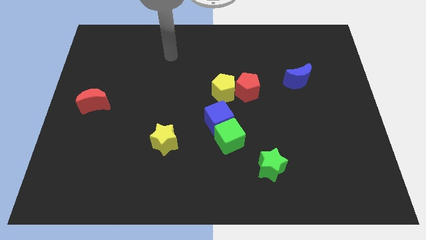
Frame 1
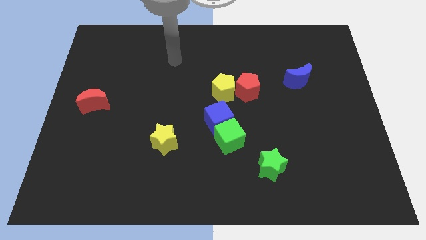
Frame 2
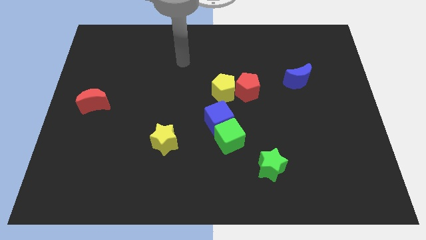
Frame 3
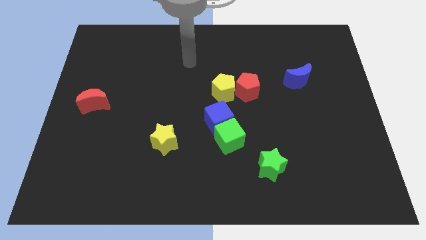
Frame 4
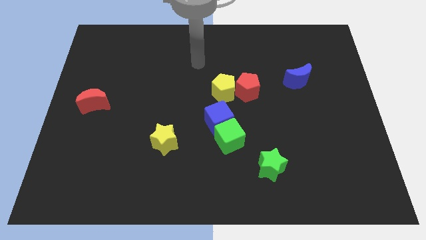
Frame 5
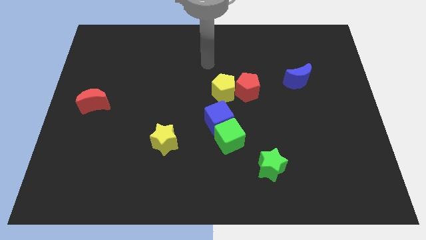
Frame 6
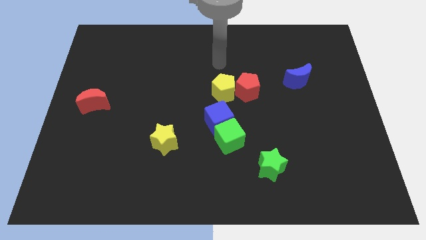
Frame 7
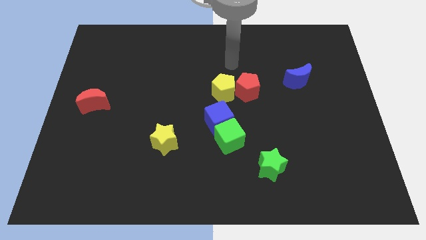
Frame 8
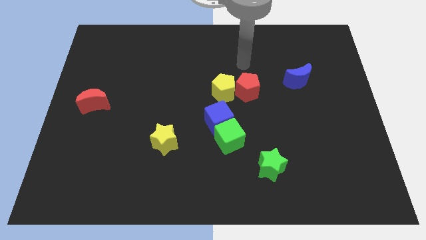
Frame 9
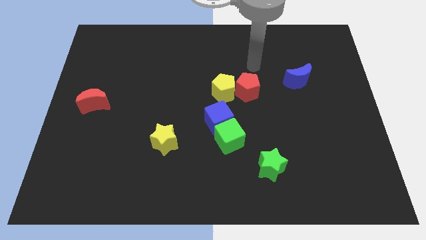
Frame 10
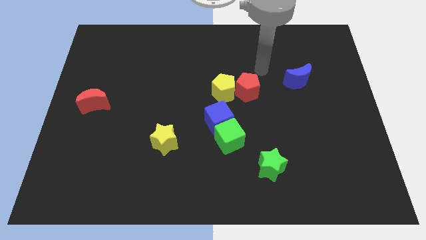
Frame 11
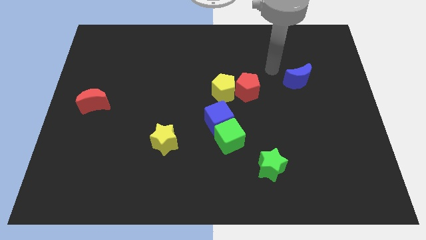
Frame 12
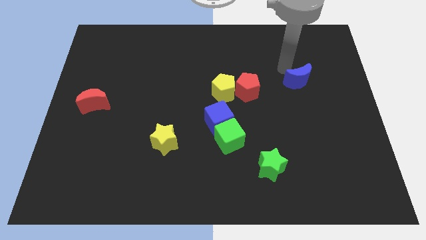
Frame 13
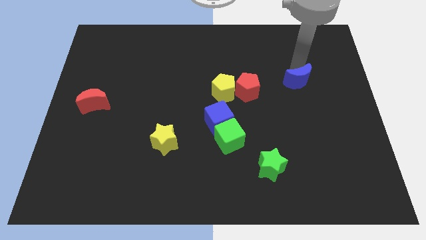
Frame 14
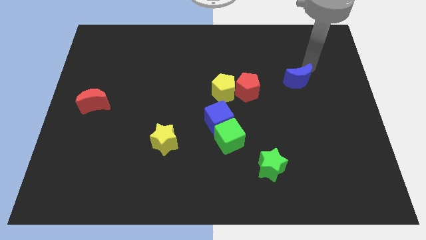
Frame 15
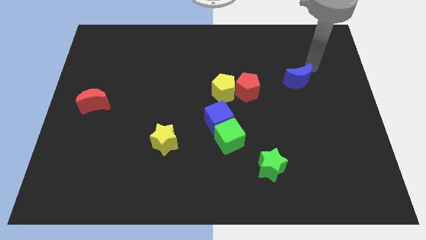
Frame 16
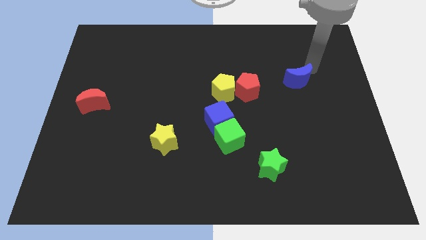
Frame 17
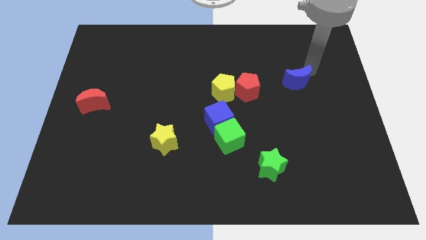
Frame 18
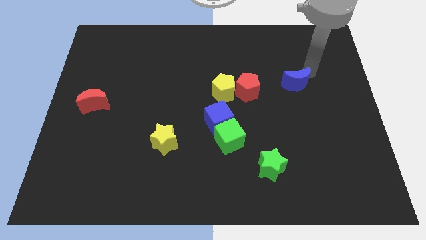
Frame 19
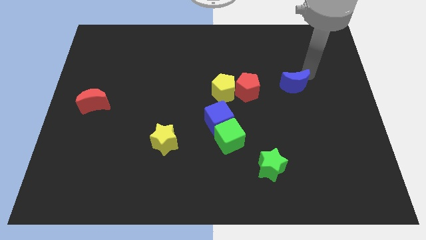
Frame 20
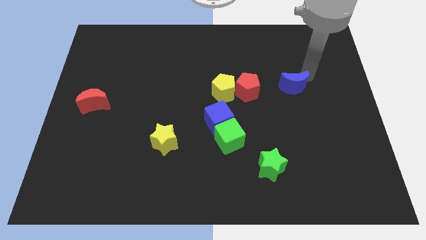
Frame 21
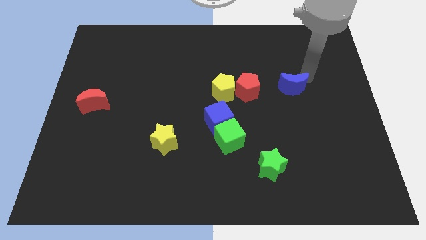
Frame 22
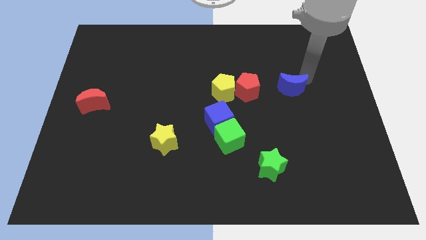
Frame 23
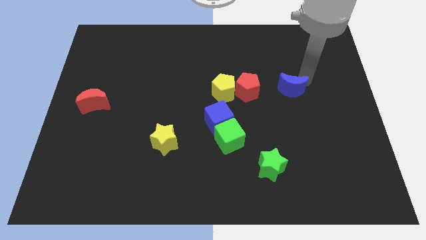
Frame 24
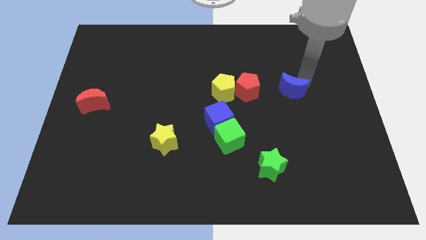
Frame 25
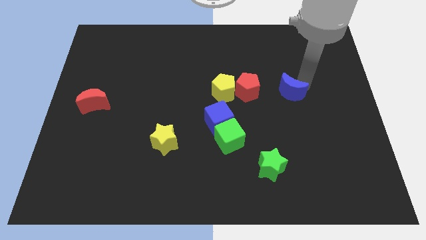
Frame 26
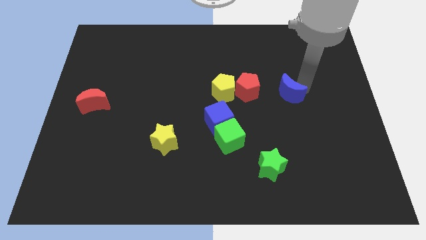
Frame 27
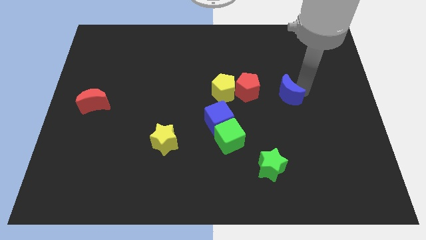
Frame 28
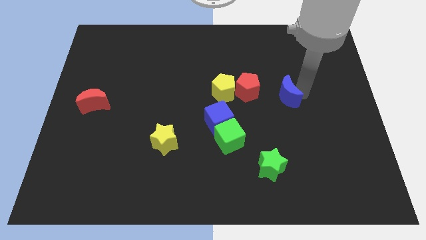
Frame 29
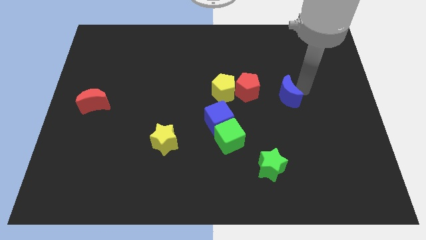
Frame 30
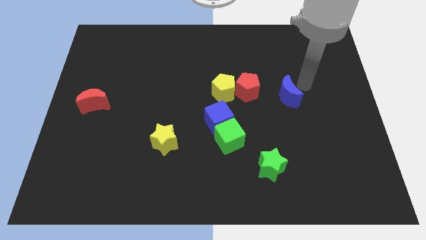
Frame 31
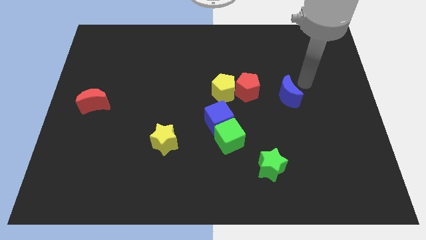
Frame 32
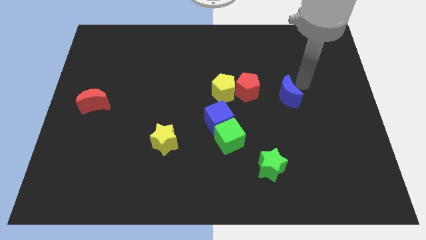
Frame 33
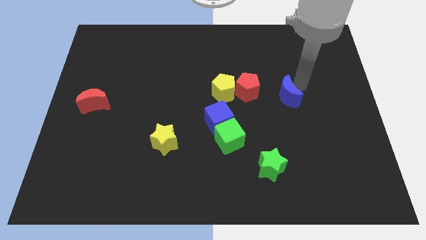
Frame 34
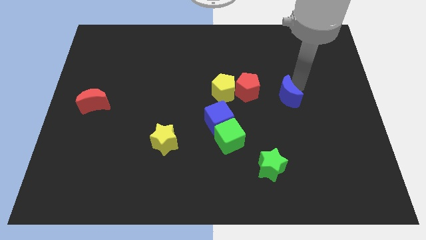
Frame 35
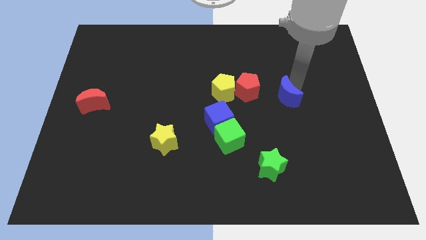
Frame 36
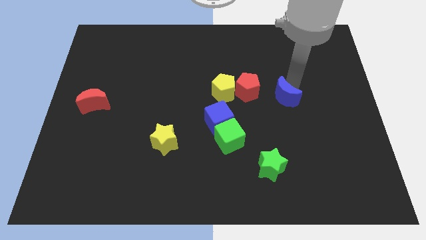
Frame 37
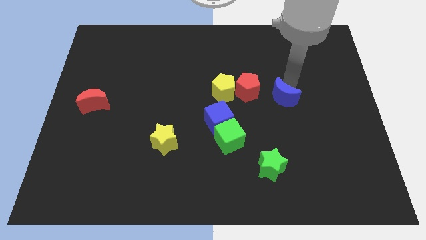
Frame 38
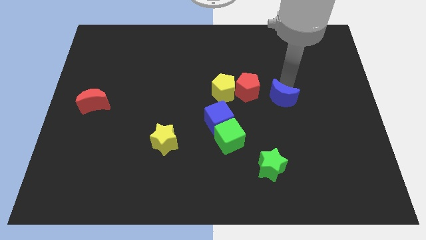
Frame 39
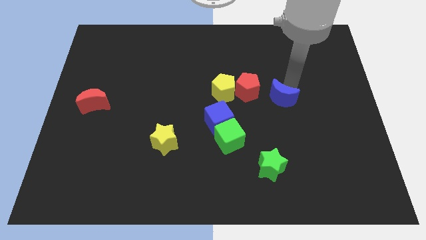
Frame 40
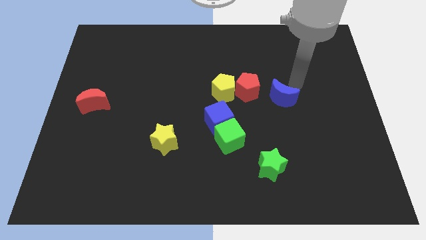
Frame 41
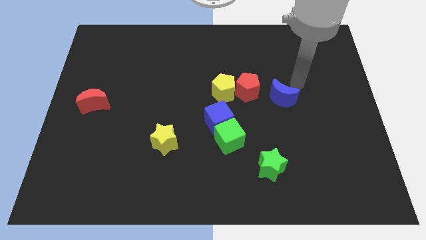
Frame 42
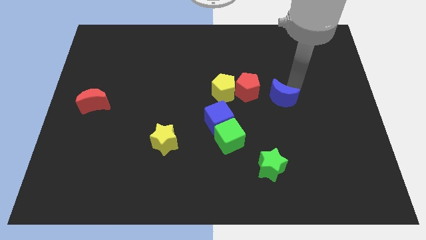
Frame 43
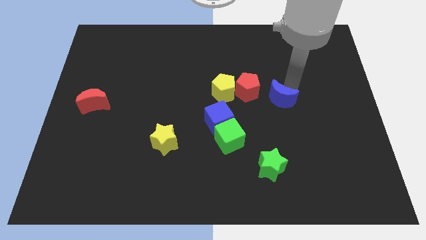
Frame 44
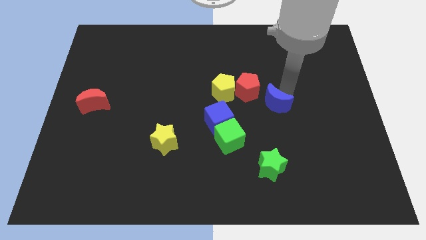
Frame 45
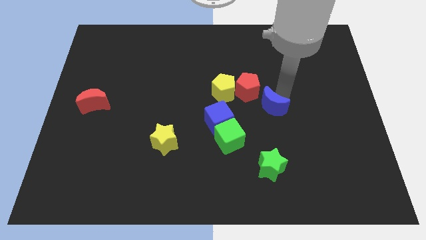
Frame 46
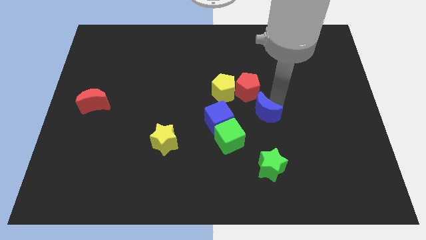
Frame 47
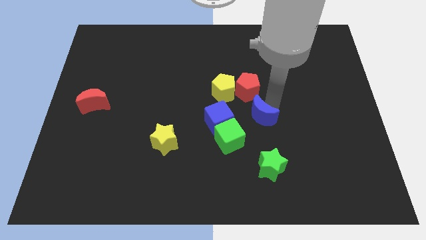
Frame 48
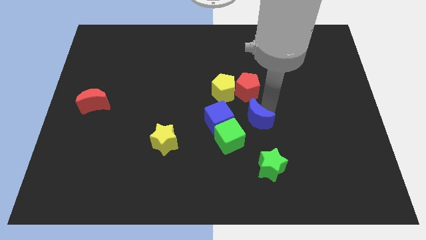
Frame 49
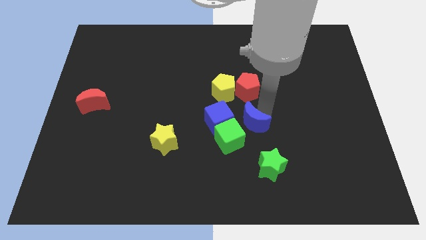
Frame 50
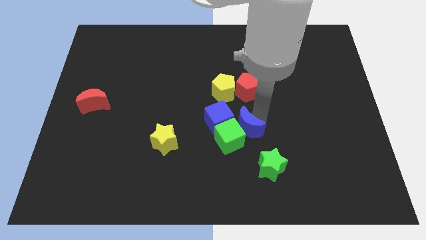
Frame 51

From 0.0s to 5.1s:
push the blue moon towards the green cube

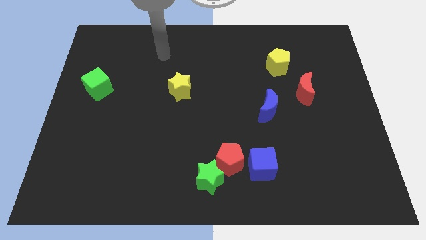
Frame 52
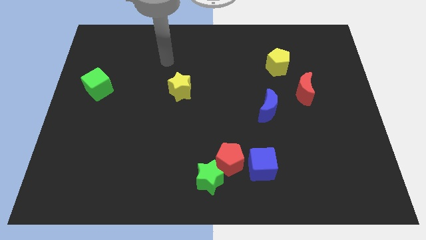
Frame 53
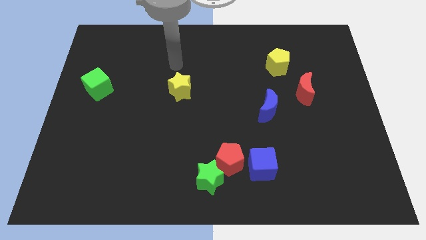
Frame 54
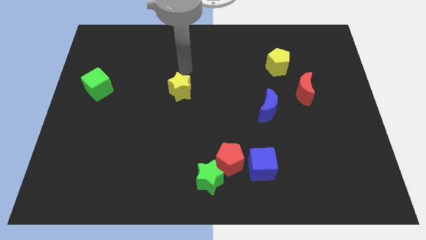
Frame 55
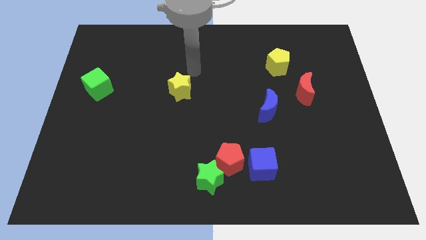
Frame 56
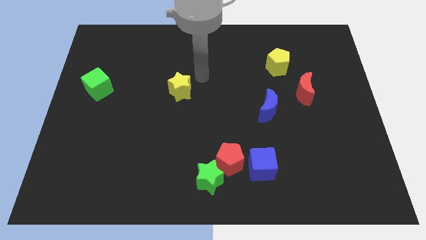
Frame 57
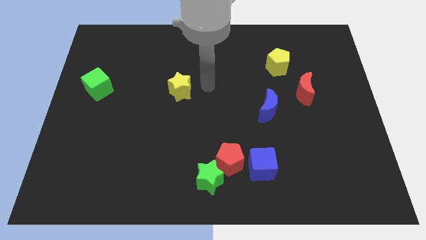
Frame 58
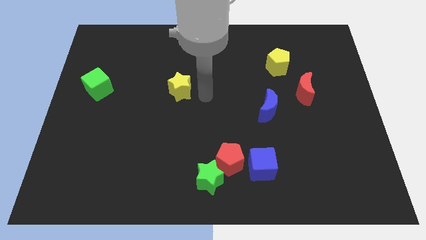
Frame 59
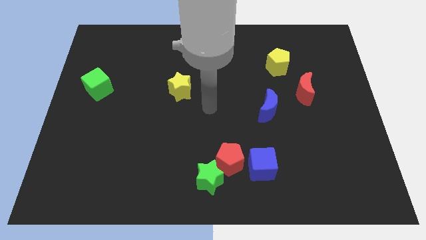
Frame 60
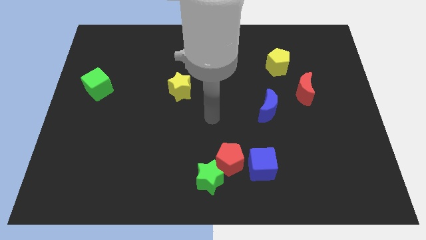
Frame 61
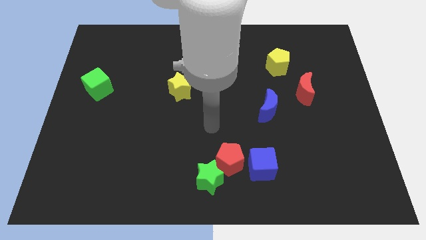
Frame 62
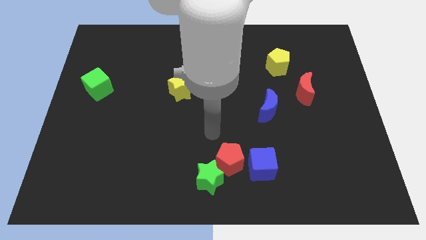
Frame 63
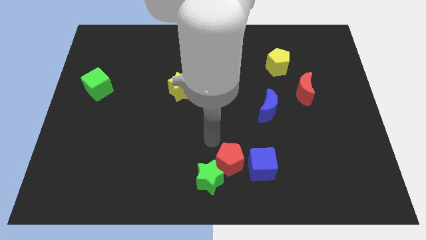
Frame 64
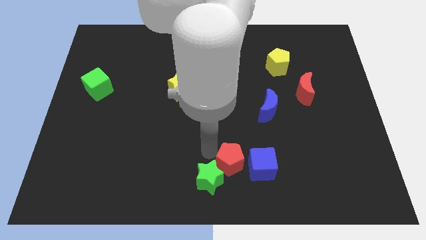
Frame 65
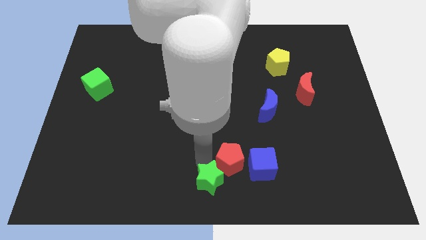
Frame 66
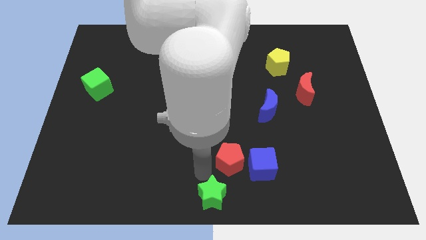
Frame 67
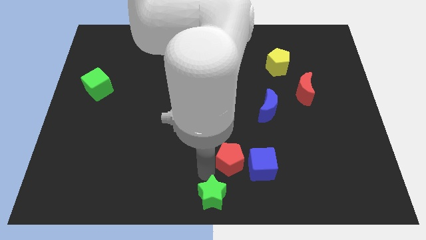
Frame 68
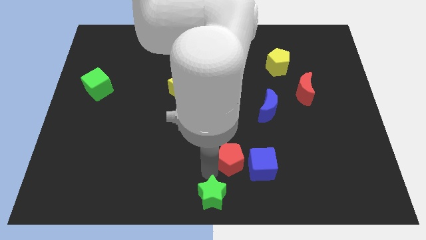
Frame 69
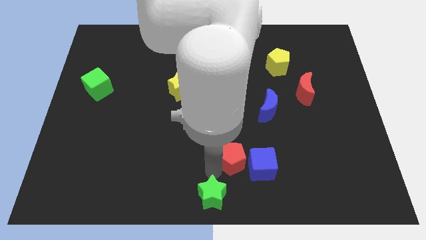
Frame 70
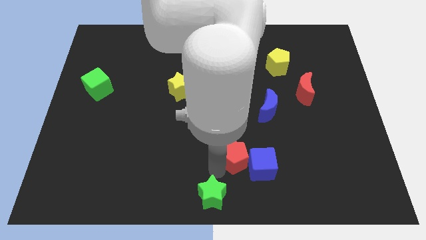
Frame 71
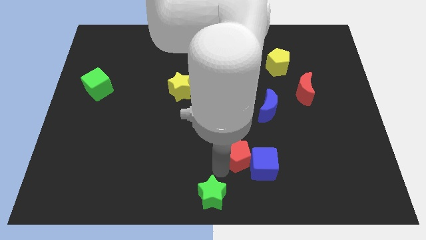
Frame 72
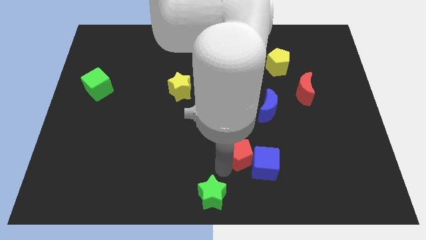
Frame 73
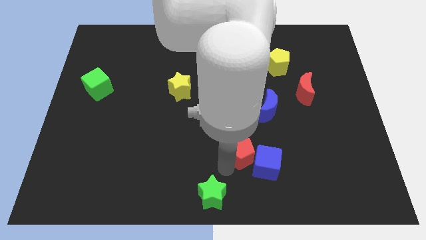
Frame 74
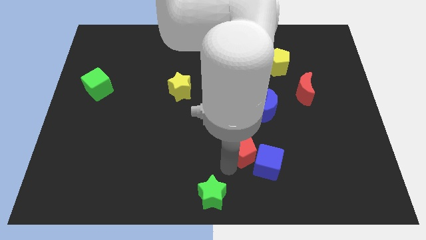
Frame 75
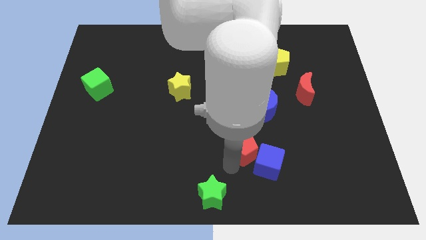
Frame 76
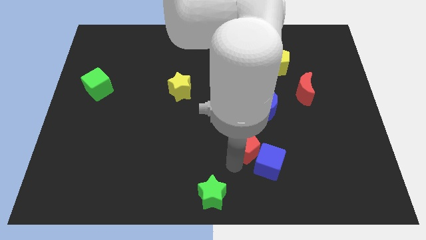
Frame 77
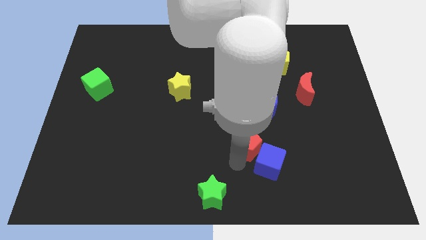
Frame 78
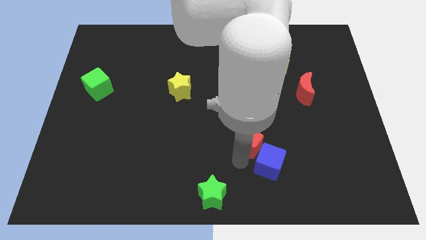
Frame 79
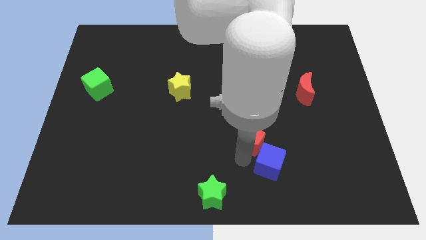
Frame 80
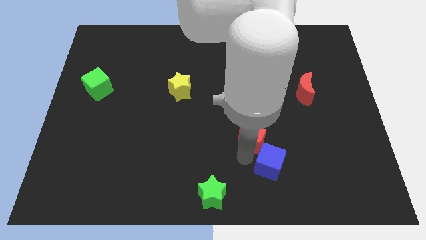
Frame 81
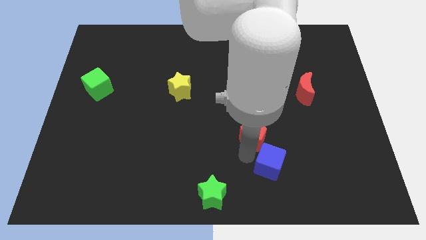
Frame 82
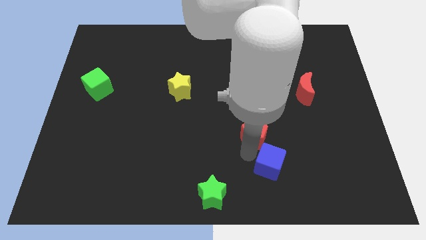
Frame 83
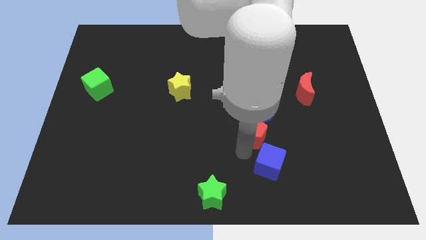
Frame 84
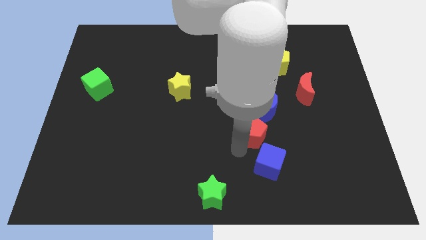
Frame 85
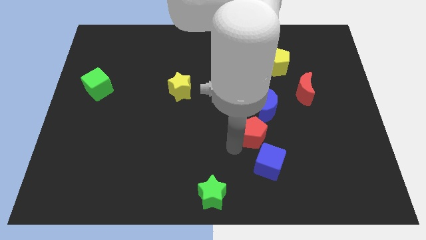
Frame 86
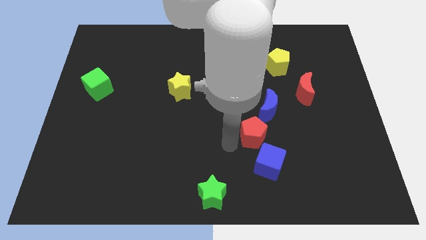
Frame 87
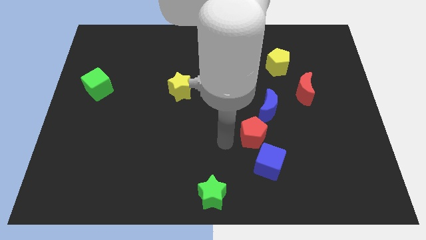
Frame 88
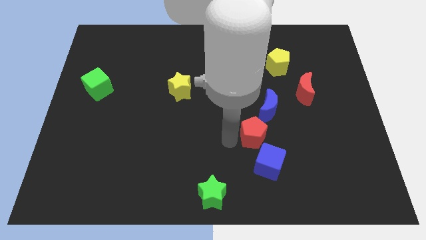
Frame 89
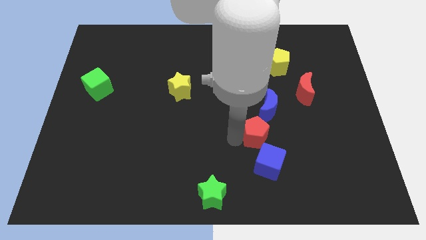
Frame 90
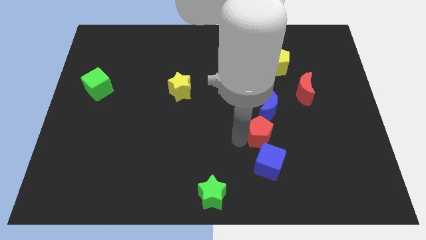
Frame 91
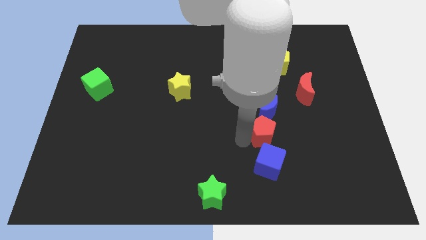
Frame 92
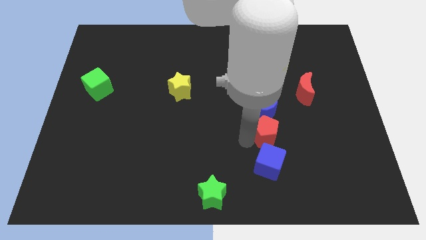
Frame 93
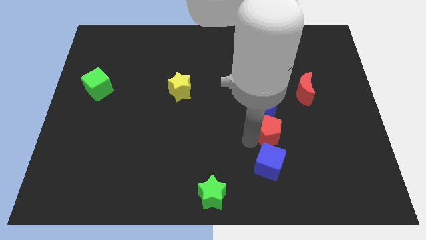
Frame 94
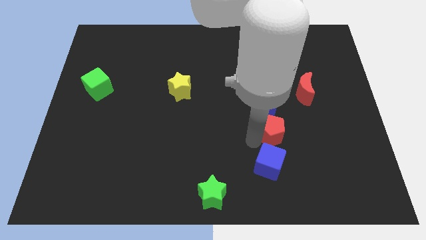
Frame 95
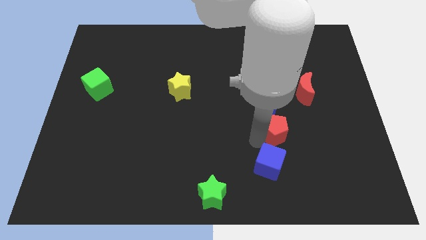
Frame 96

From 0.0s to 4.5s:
slide the red pentagon to the blue moon
